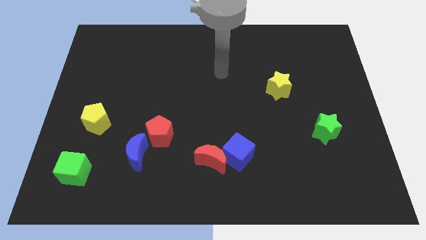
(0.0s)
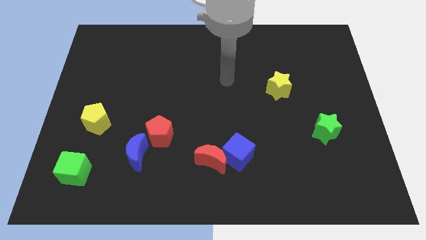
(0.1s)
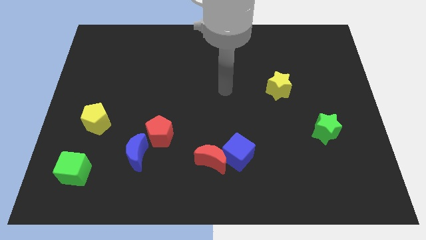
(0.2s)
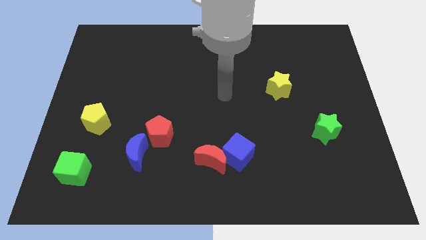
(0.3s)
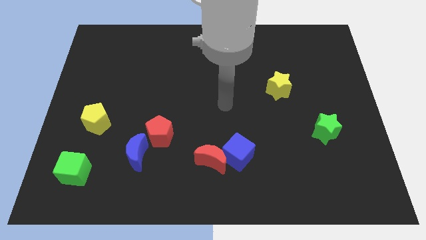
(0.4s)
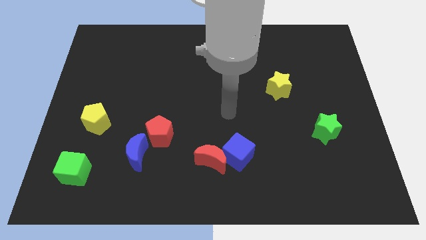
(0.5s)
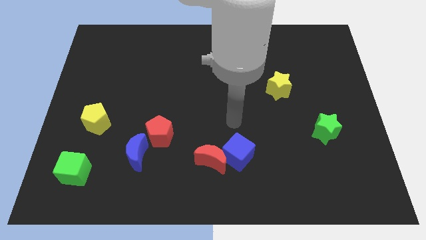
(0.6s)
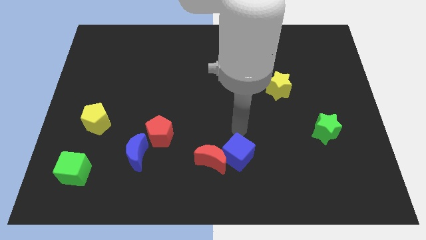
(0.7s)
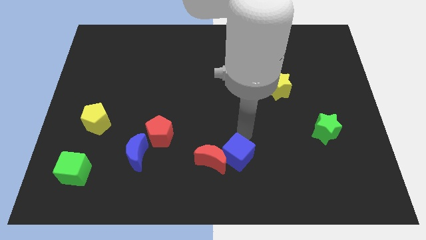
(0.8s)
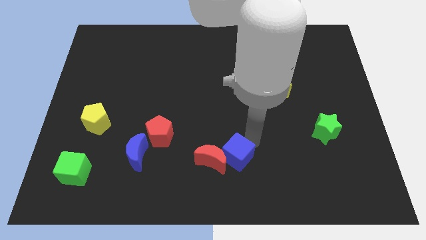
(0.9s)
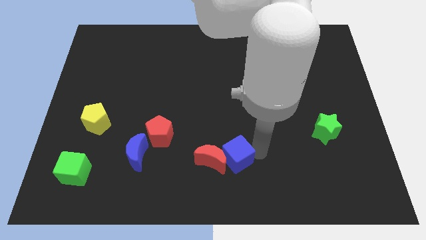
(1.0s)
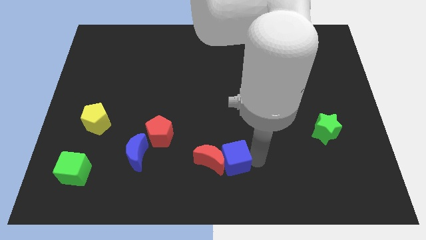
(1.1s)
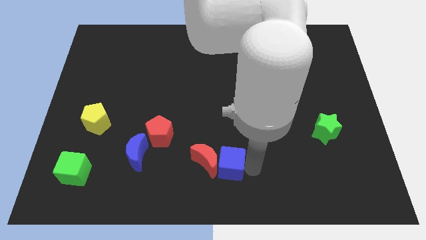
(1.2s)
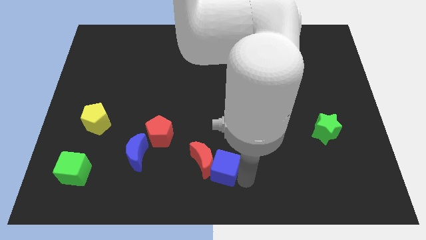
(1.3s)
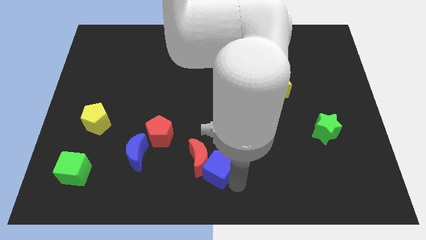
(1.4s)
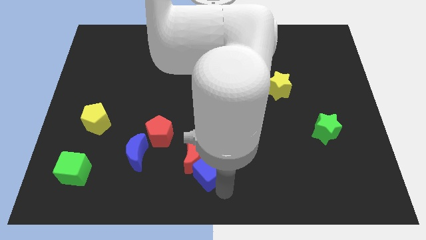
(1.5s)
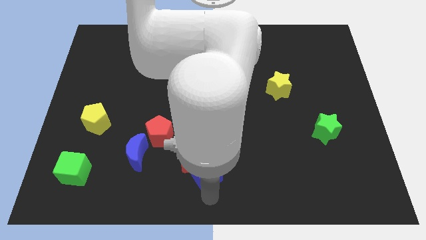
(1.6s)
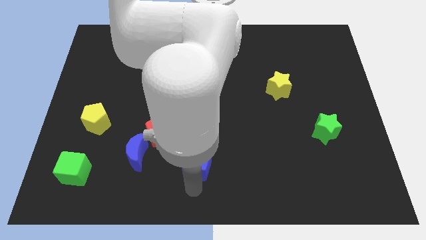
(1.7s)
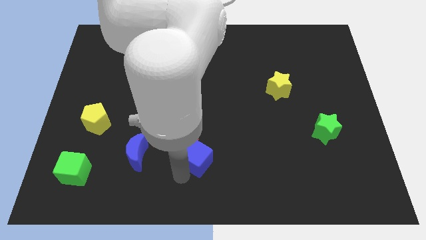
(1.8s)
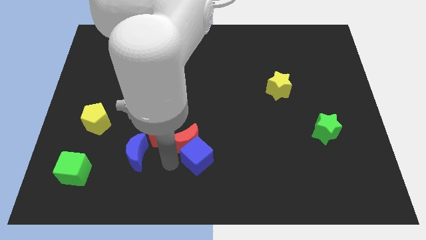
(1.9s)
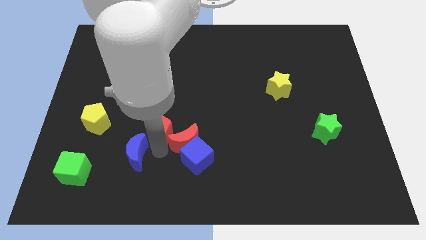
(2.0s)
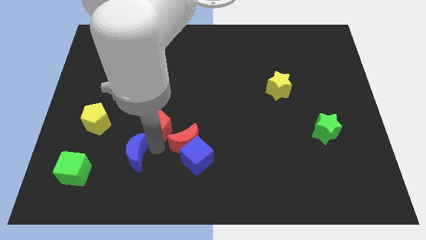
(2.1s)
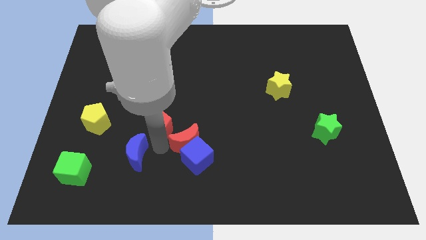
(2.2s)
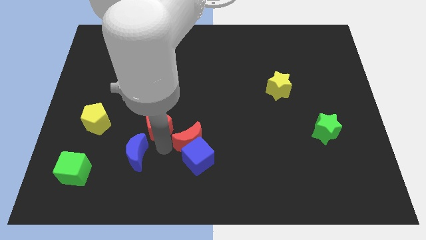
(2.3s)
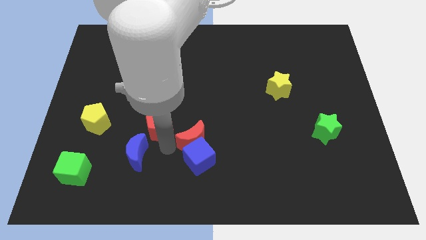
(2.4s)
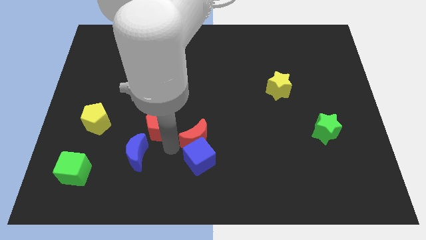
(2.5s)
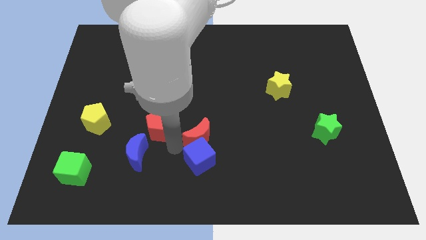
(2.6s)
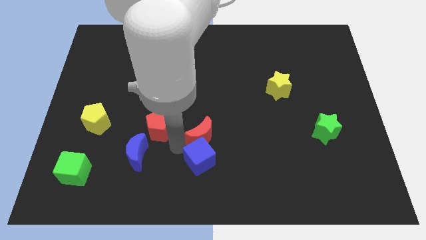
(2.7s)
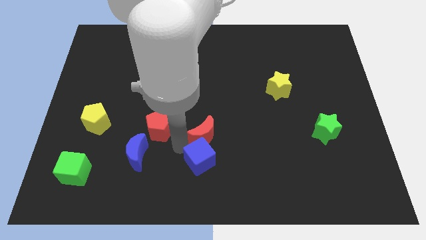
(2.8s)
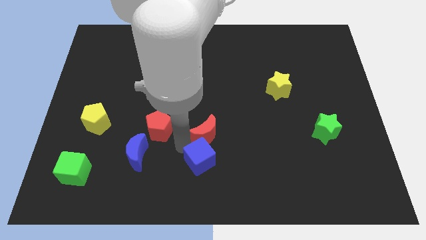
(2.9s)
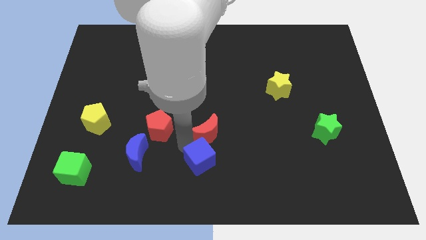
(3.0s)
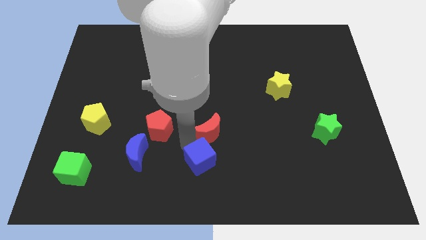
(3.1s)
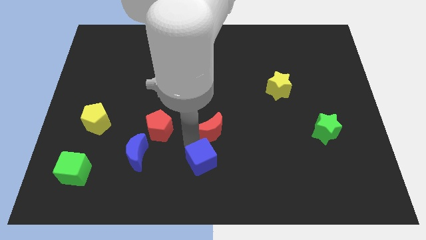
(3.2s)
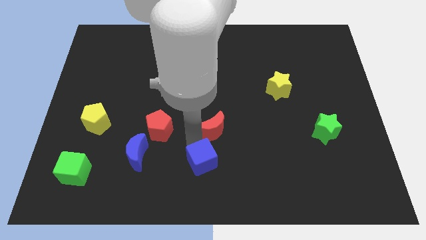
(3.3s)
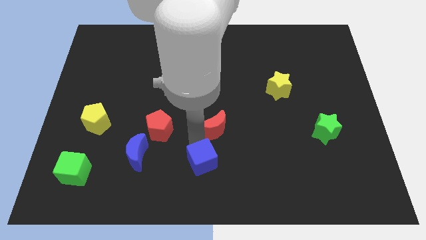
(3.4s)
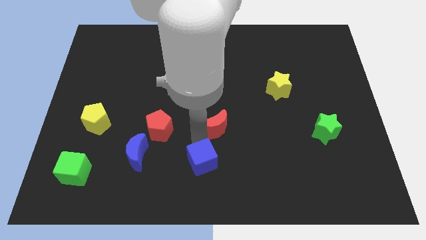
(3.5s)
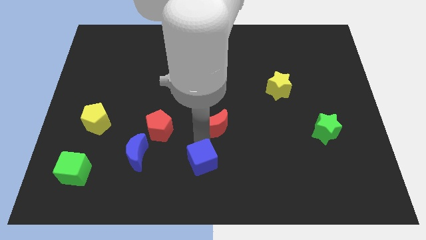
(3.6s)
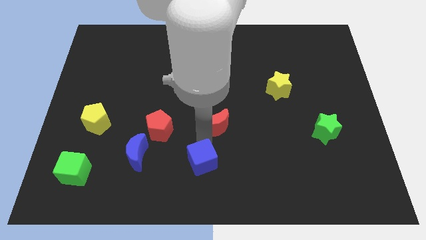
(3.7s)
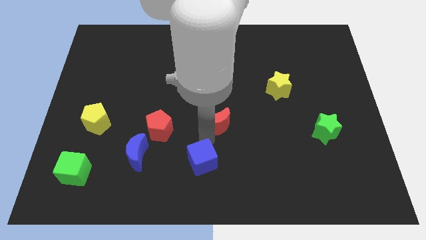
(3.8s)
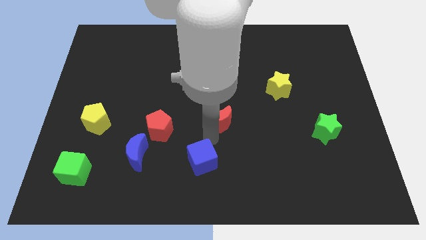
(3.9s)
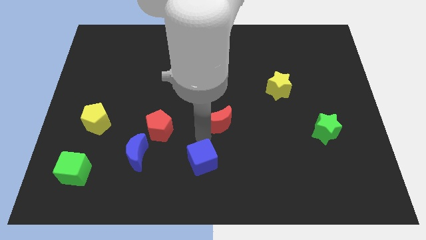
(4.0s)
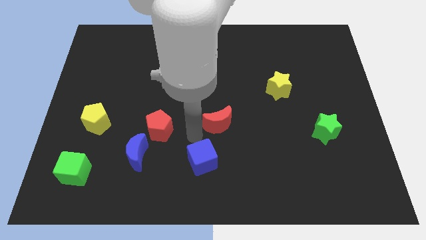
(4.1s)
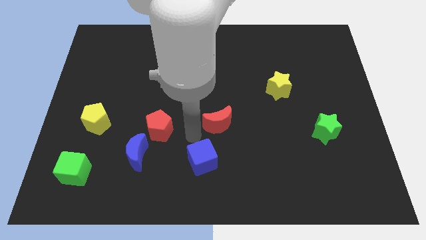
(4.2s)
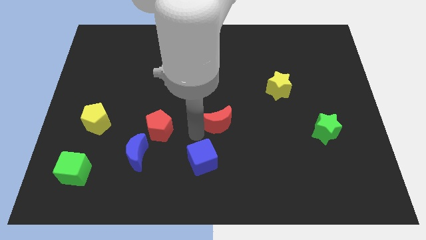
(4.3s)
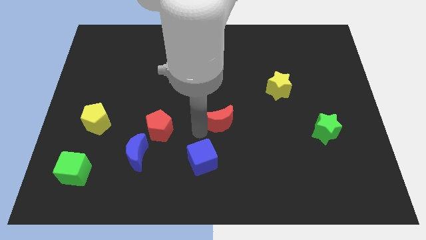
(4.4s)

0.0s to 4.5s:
slide the red moon diagonally up and right slightly

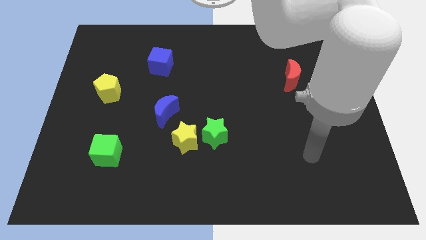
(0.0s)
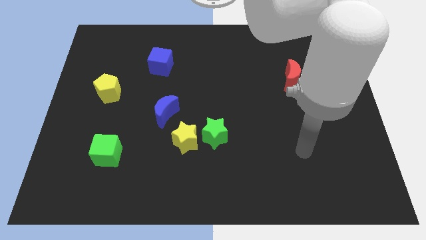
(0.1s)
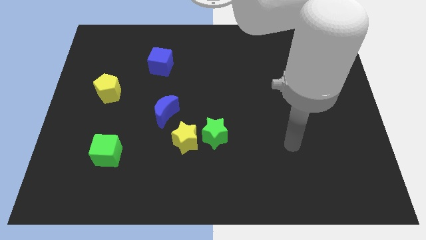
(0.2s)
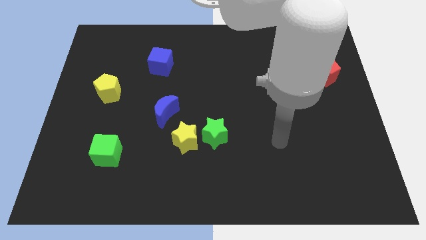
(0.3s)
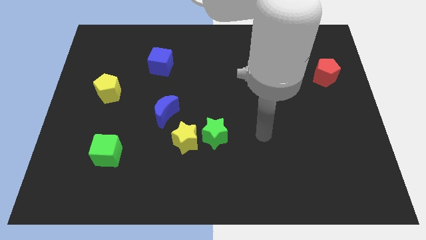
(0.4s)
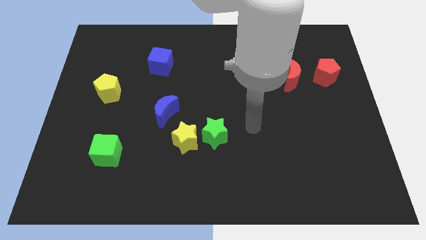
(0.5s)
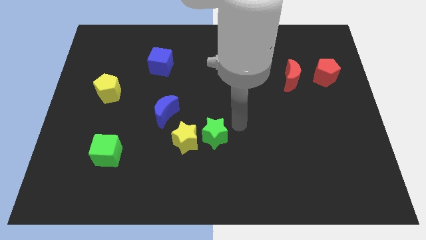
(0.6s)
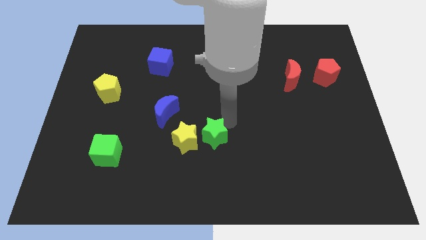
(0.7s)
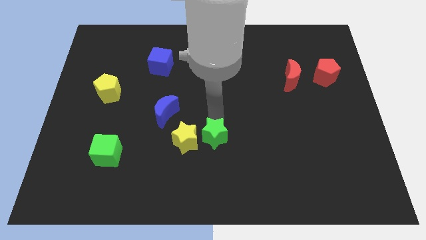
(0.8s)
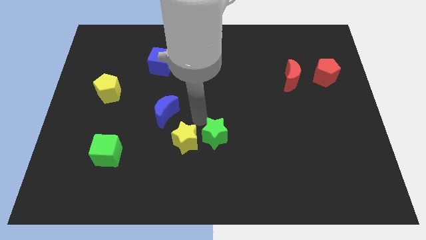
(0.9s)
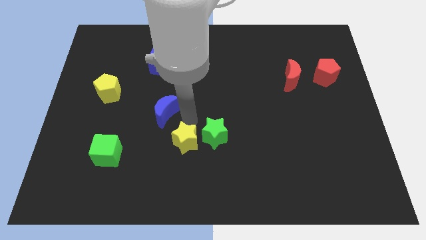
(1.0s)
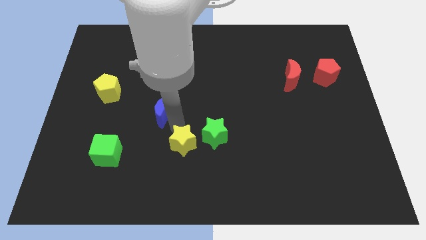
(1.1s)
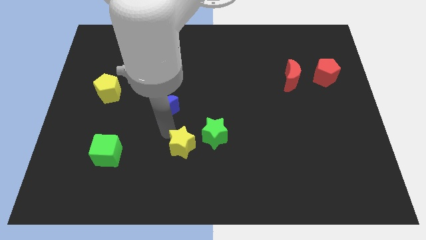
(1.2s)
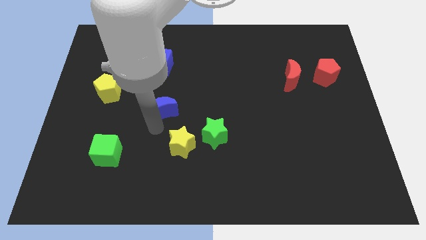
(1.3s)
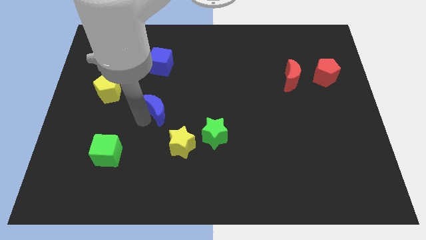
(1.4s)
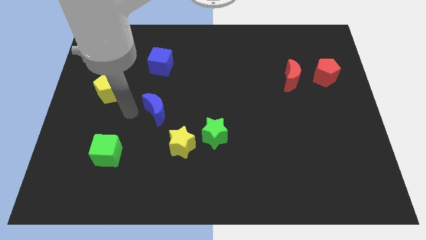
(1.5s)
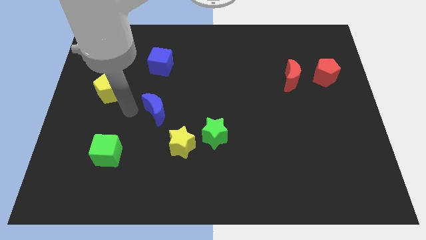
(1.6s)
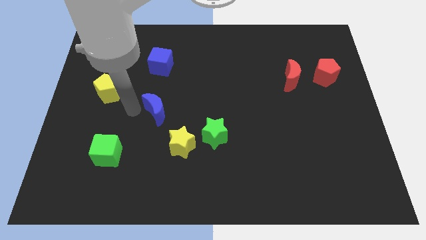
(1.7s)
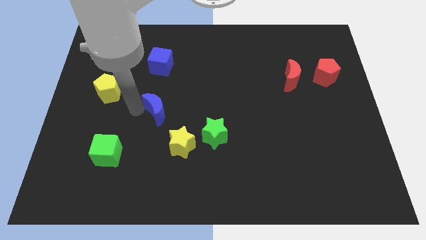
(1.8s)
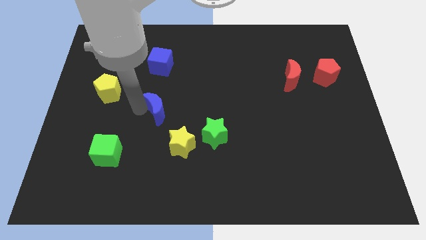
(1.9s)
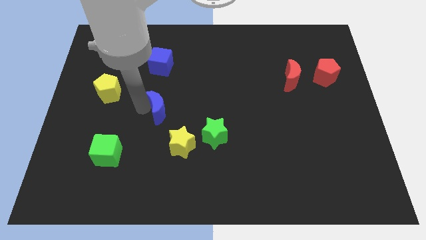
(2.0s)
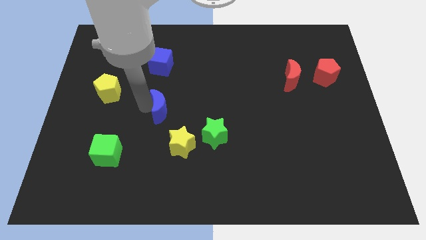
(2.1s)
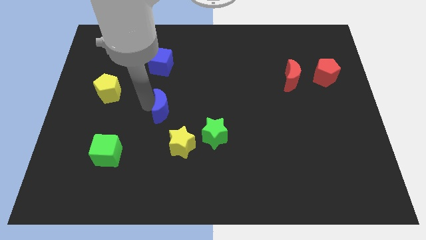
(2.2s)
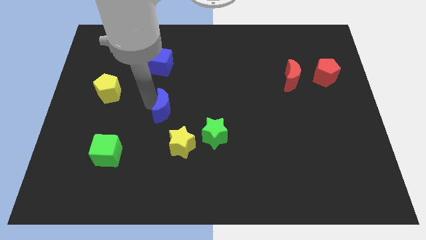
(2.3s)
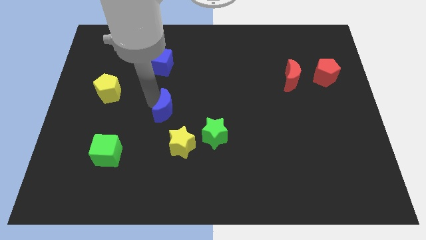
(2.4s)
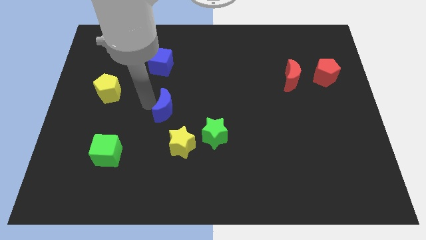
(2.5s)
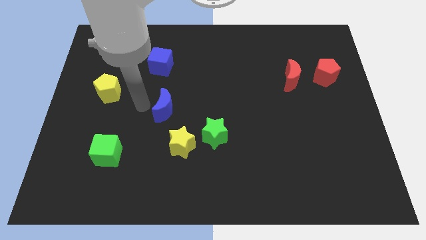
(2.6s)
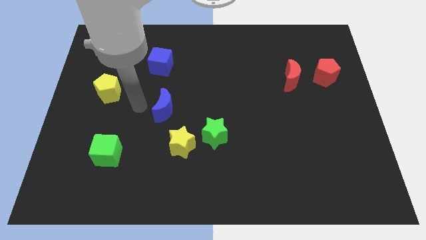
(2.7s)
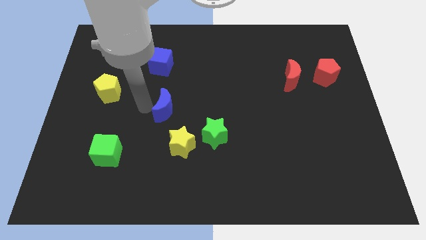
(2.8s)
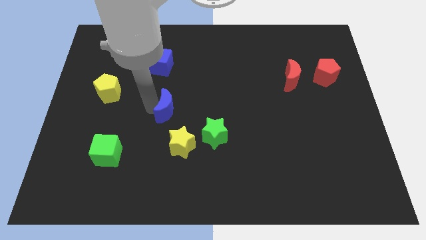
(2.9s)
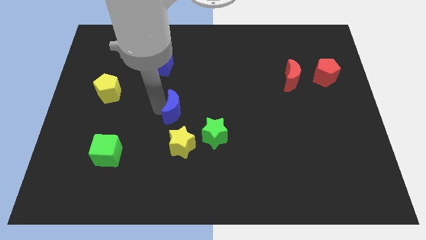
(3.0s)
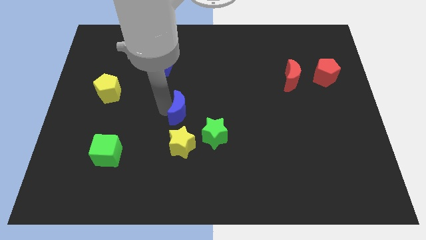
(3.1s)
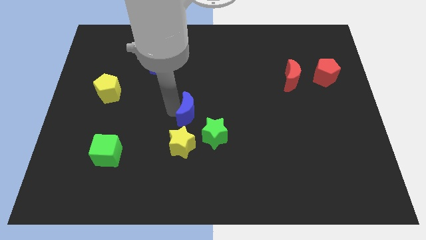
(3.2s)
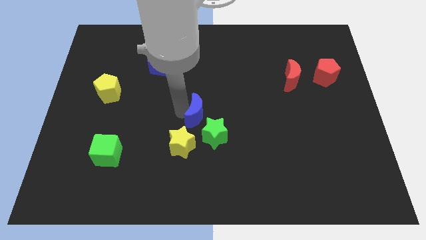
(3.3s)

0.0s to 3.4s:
slide the blue moon right somewhat

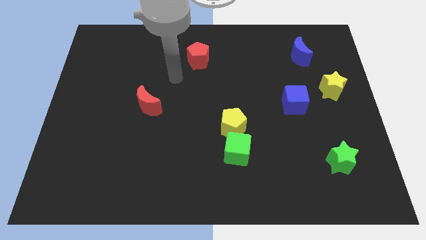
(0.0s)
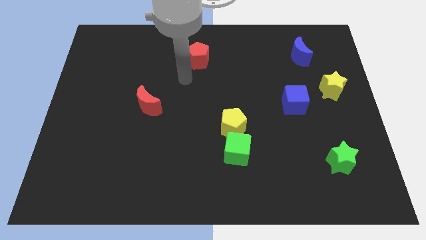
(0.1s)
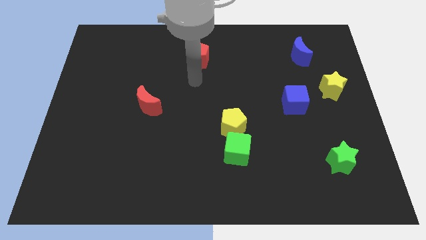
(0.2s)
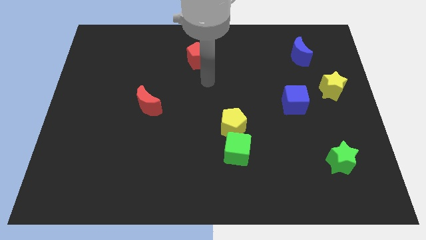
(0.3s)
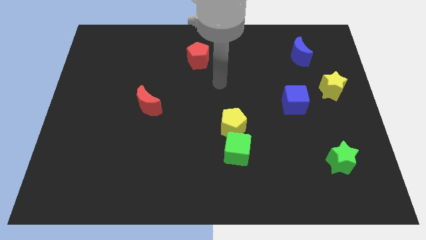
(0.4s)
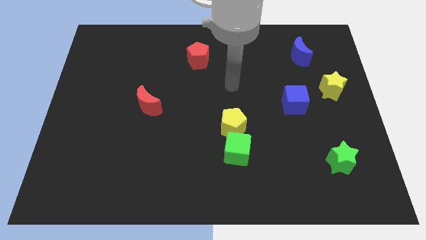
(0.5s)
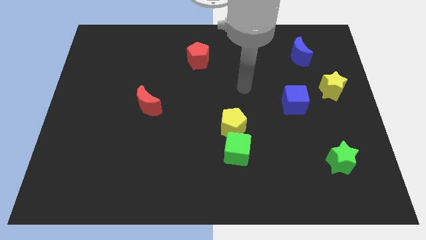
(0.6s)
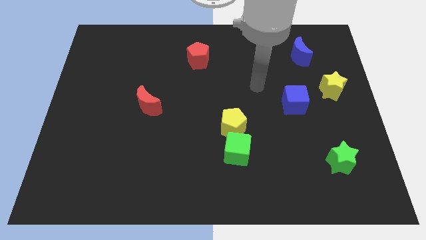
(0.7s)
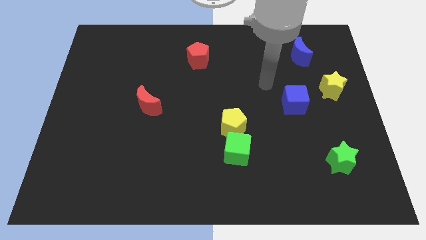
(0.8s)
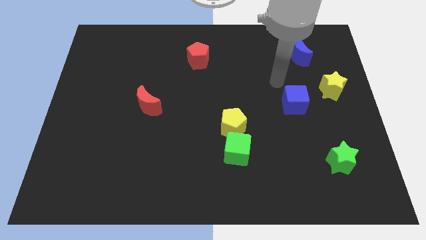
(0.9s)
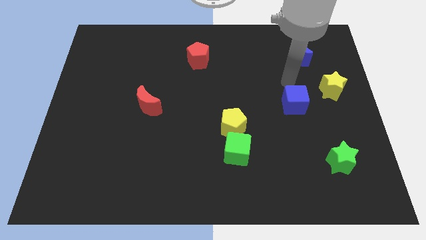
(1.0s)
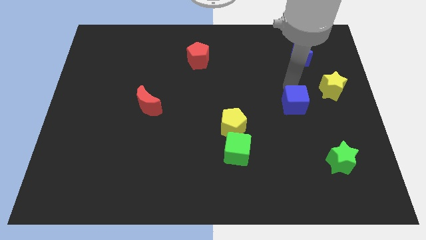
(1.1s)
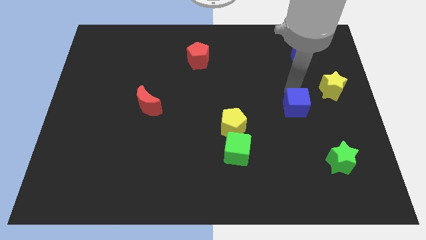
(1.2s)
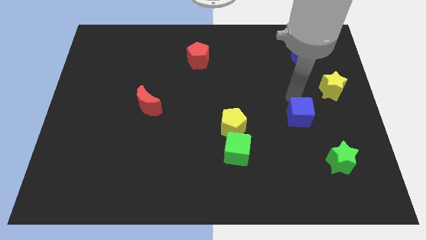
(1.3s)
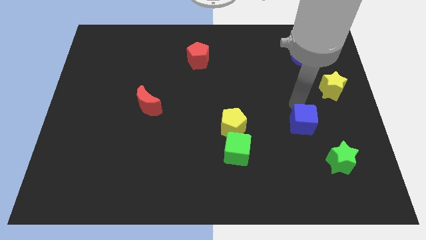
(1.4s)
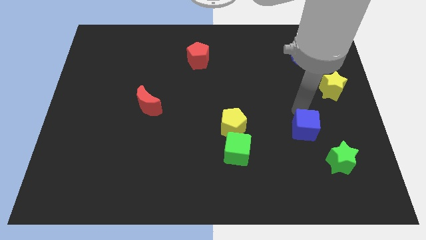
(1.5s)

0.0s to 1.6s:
push the blue cube downwards somewhat
